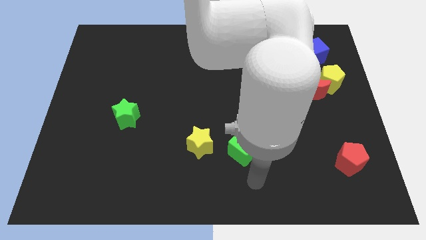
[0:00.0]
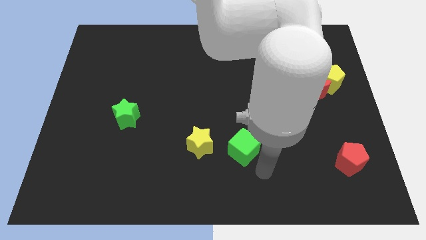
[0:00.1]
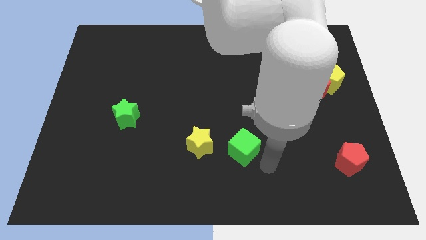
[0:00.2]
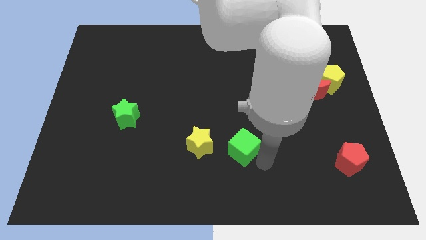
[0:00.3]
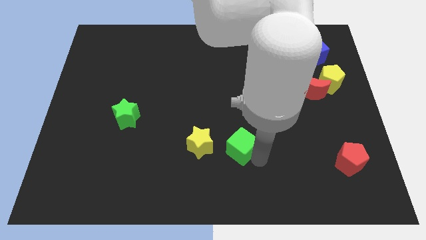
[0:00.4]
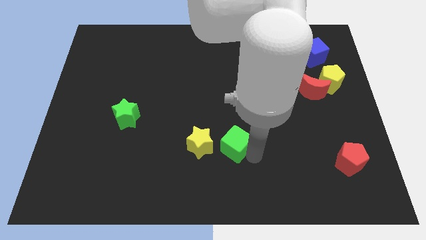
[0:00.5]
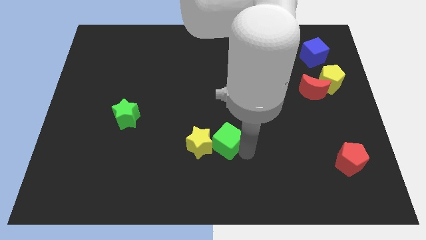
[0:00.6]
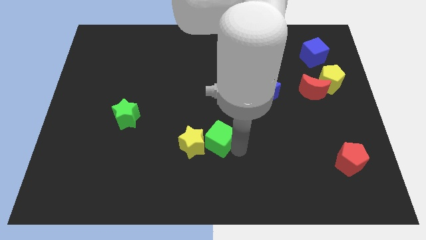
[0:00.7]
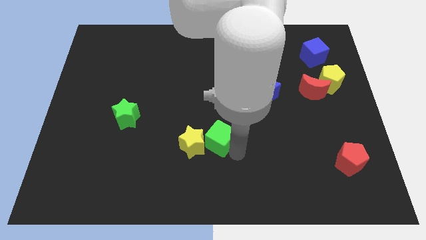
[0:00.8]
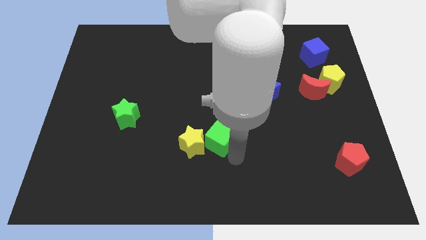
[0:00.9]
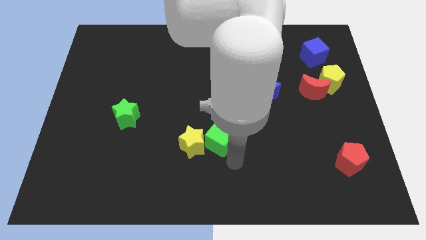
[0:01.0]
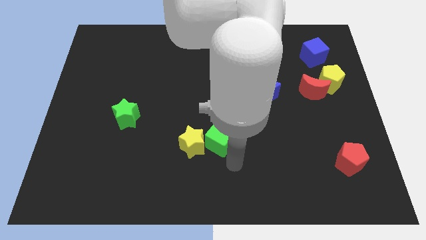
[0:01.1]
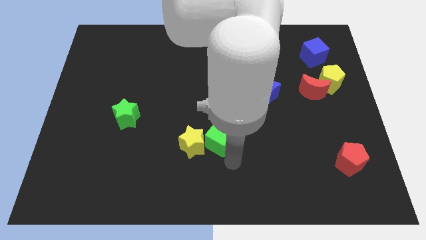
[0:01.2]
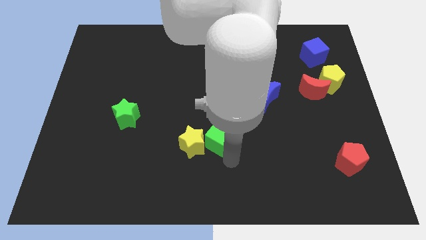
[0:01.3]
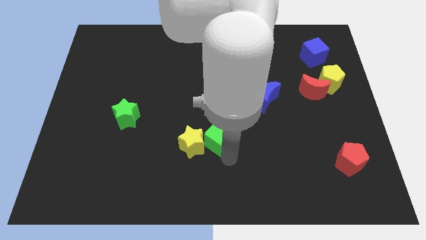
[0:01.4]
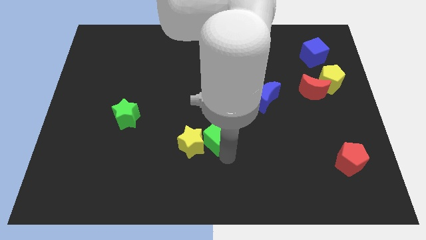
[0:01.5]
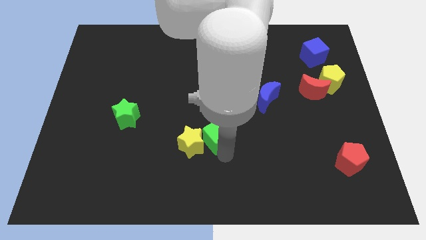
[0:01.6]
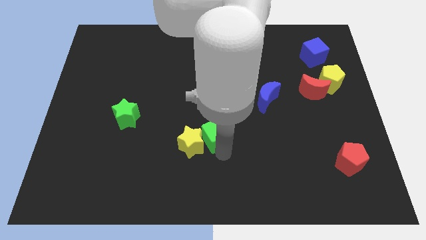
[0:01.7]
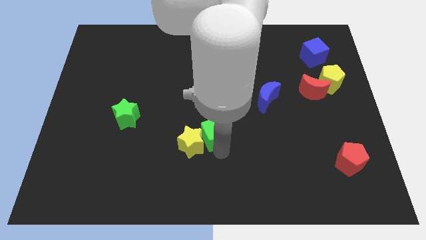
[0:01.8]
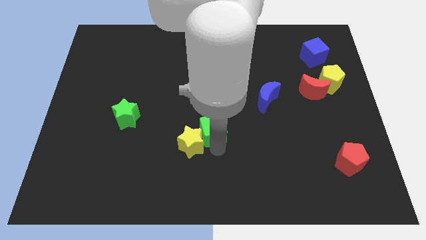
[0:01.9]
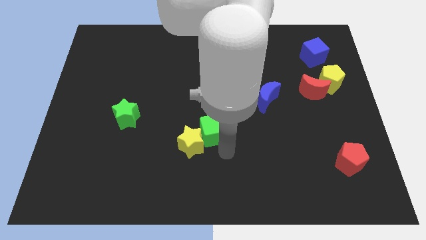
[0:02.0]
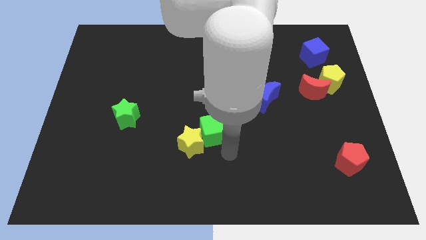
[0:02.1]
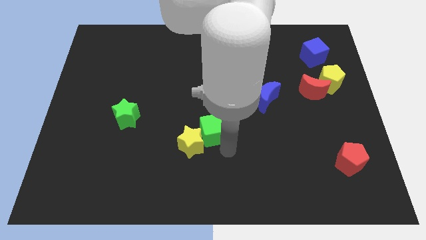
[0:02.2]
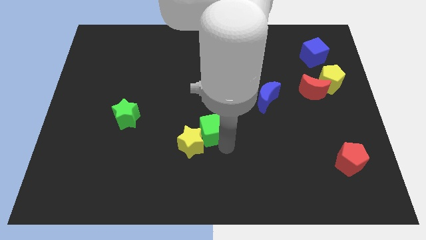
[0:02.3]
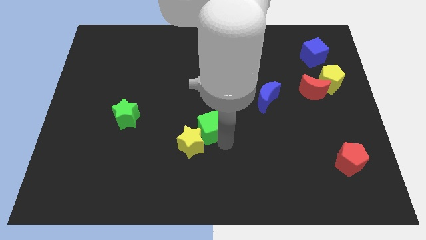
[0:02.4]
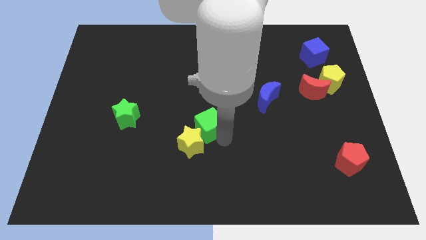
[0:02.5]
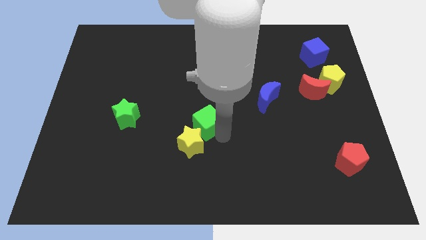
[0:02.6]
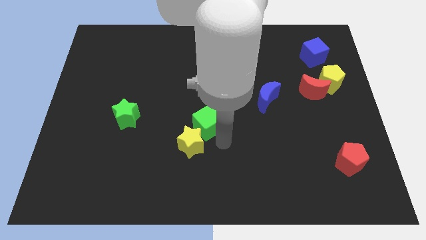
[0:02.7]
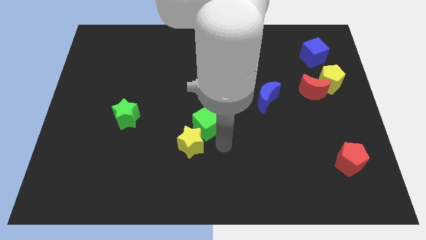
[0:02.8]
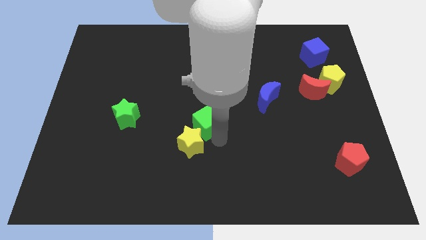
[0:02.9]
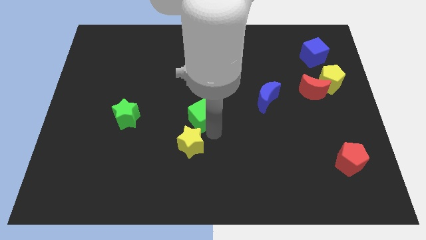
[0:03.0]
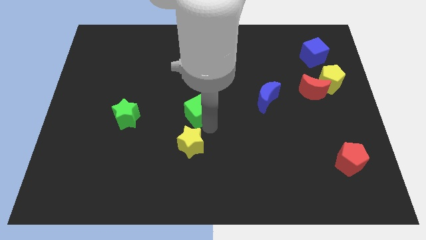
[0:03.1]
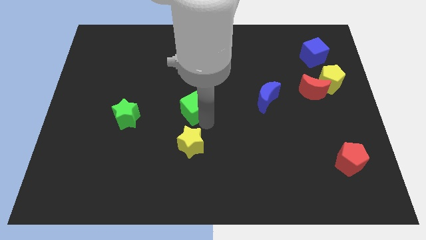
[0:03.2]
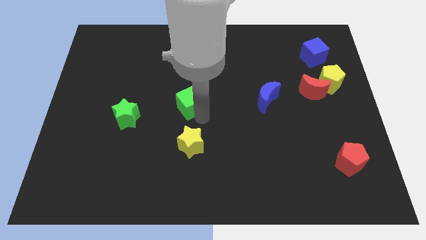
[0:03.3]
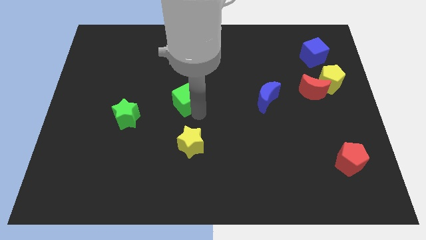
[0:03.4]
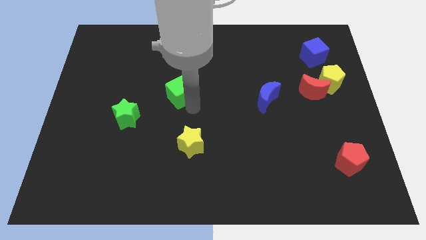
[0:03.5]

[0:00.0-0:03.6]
slide the green cube upwards and left

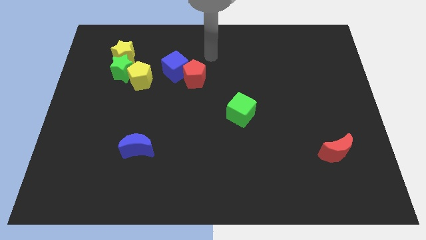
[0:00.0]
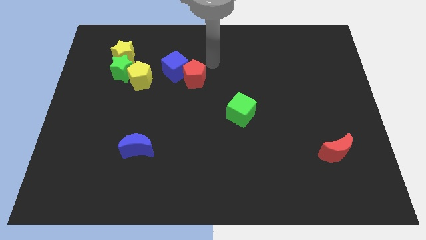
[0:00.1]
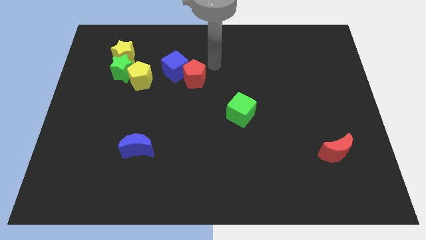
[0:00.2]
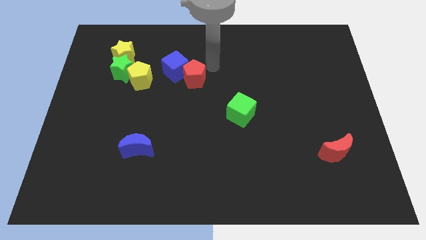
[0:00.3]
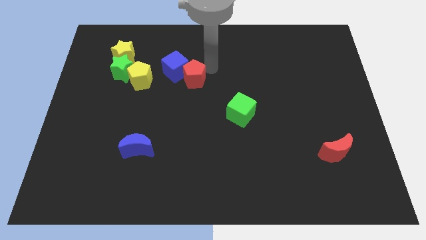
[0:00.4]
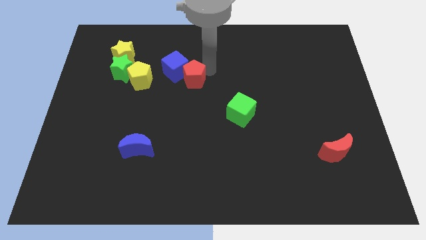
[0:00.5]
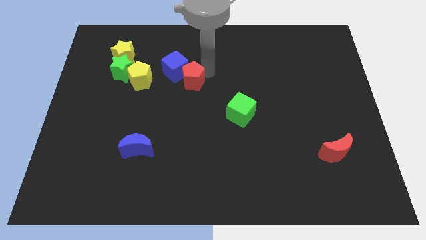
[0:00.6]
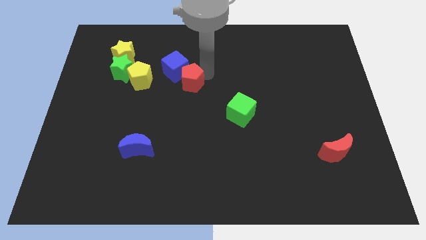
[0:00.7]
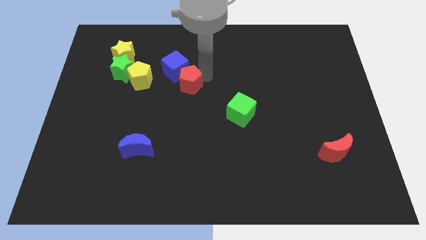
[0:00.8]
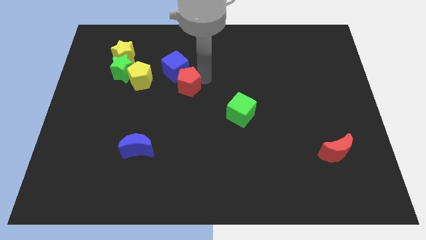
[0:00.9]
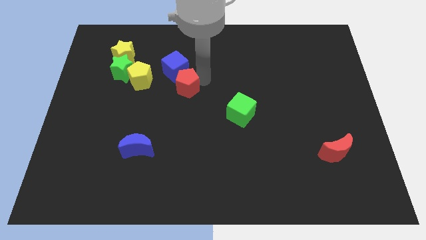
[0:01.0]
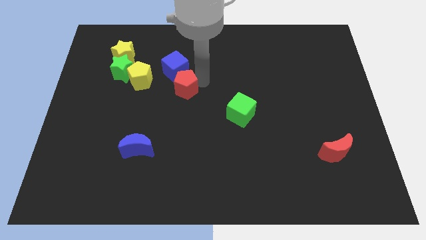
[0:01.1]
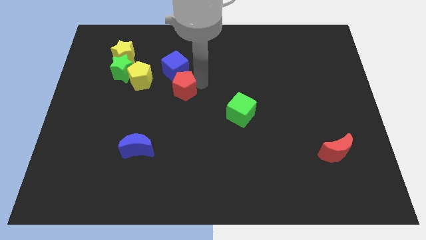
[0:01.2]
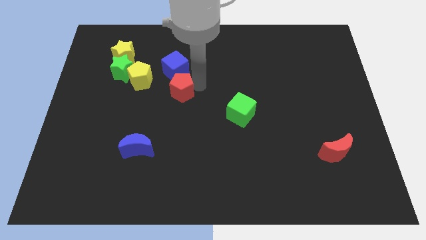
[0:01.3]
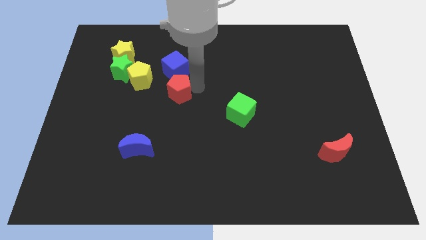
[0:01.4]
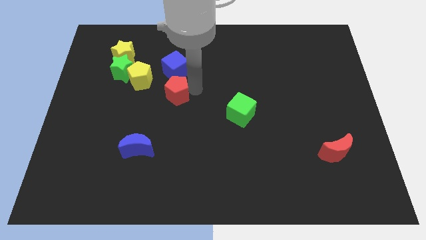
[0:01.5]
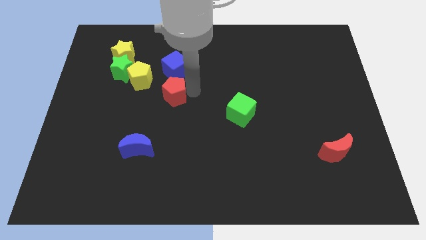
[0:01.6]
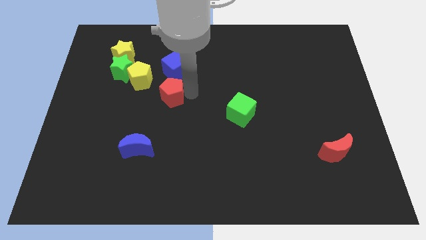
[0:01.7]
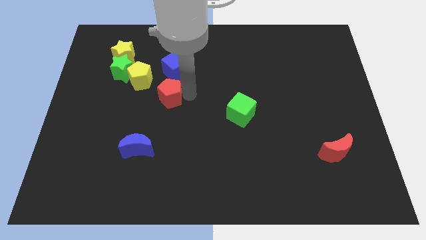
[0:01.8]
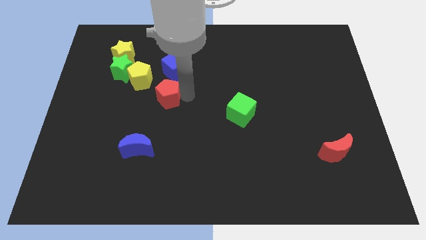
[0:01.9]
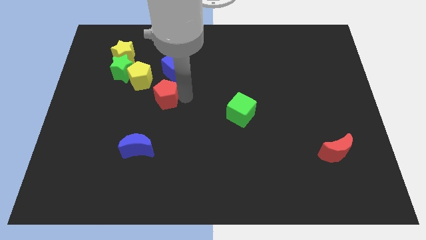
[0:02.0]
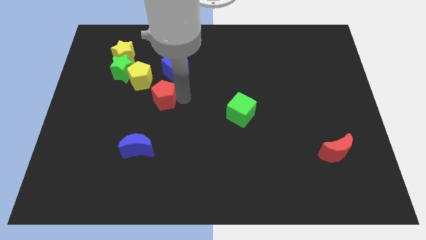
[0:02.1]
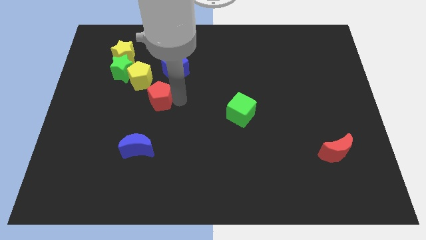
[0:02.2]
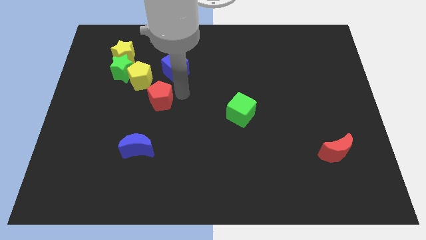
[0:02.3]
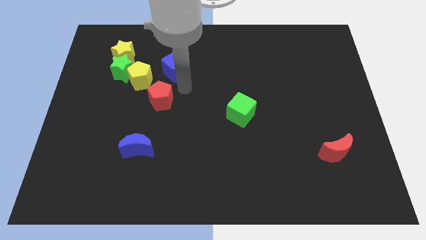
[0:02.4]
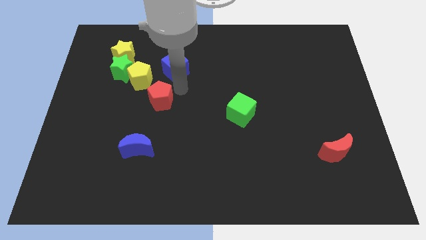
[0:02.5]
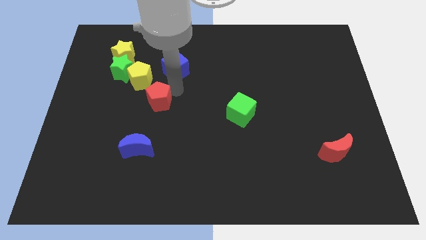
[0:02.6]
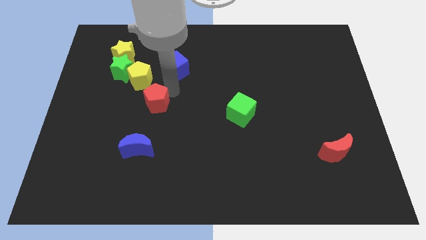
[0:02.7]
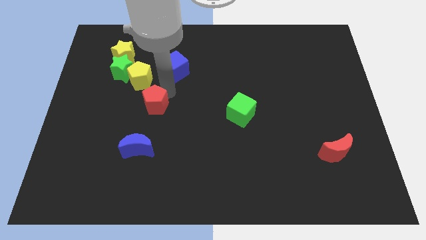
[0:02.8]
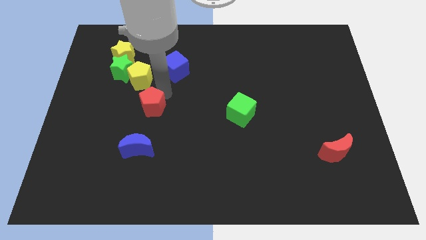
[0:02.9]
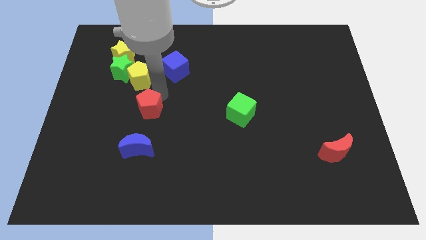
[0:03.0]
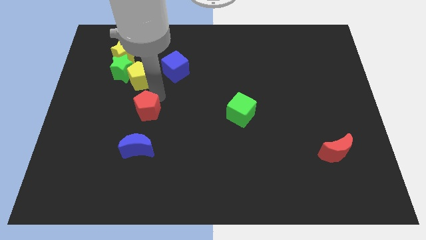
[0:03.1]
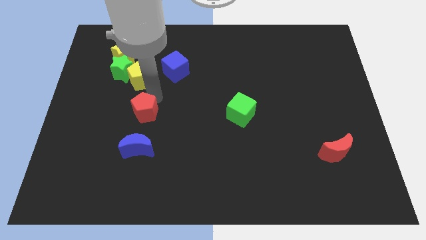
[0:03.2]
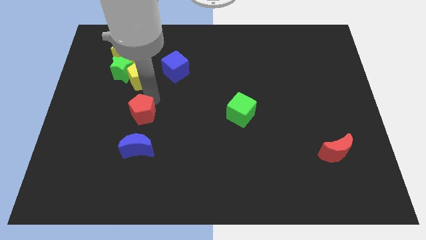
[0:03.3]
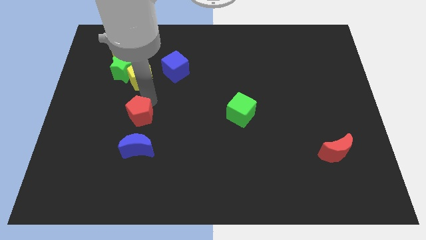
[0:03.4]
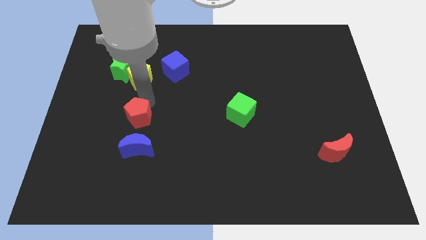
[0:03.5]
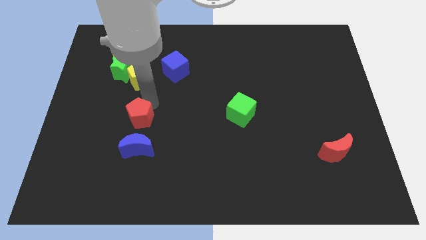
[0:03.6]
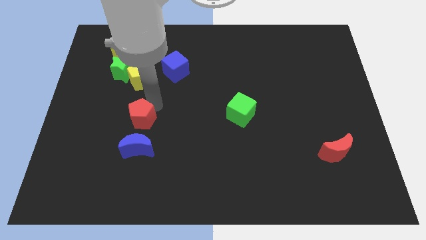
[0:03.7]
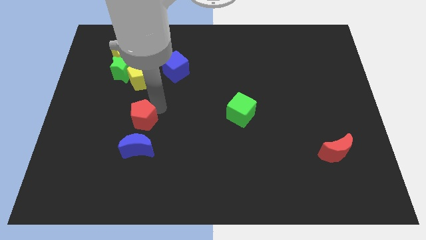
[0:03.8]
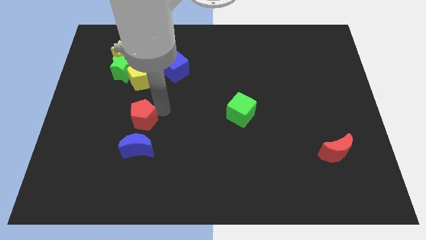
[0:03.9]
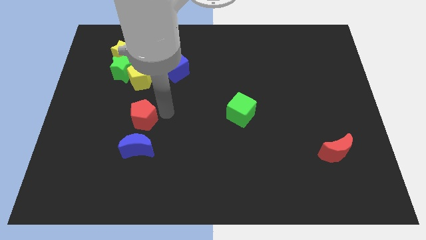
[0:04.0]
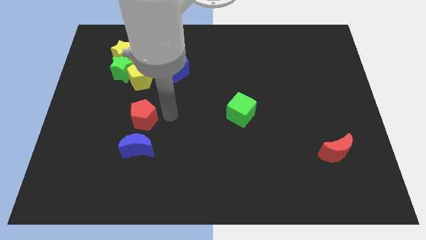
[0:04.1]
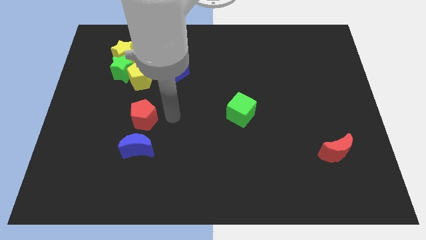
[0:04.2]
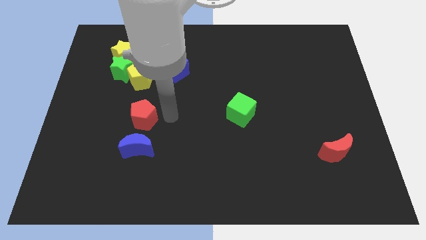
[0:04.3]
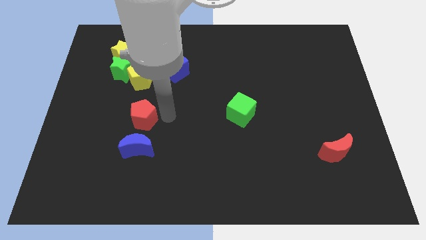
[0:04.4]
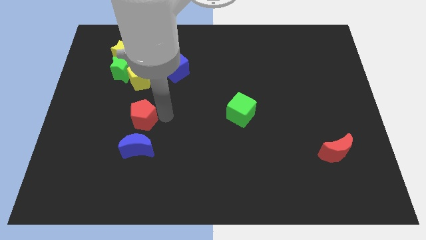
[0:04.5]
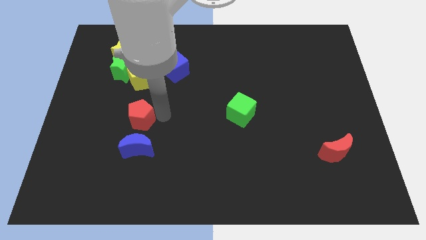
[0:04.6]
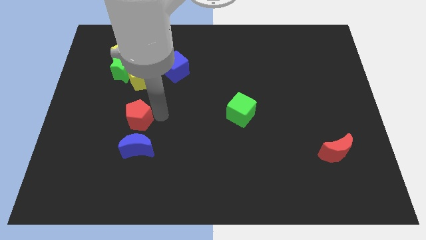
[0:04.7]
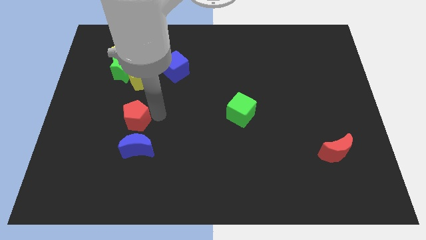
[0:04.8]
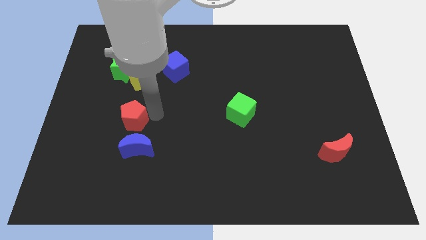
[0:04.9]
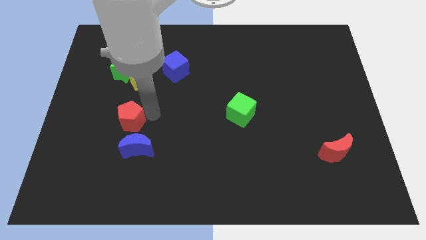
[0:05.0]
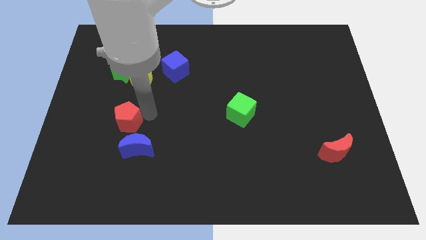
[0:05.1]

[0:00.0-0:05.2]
move the red pentagon down and left diagonally
